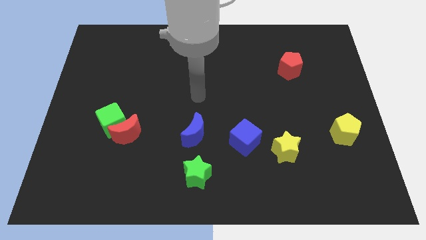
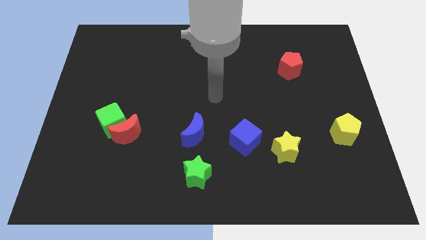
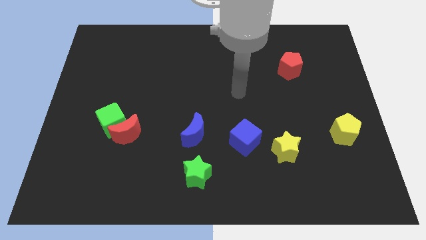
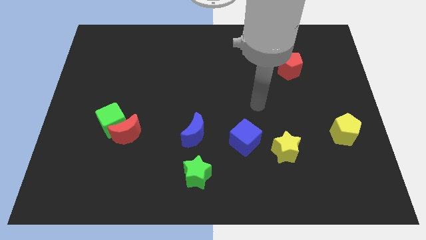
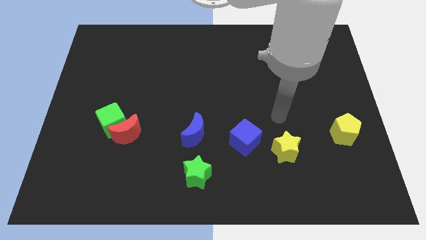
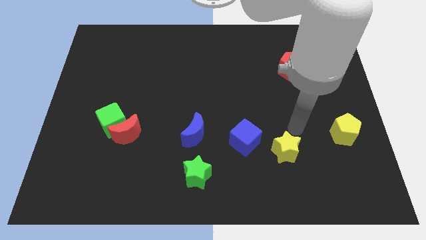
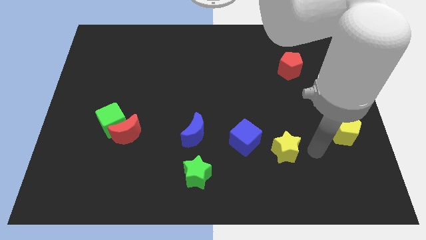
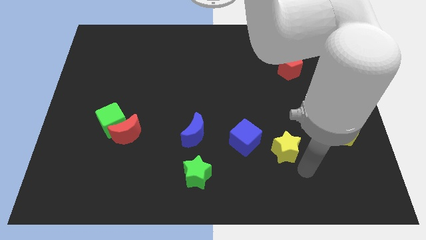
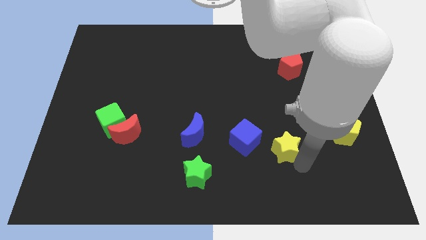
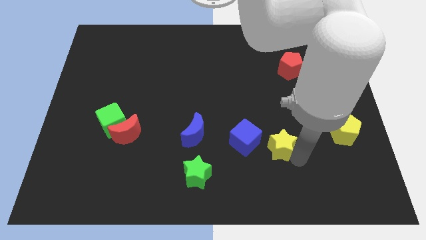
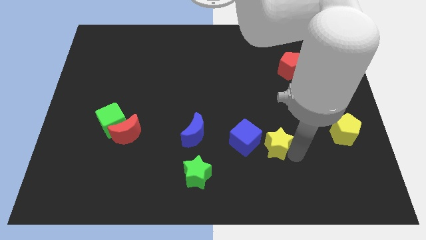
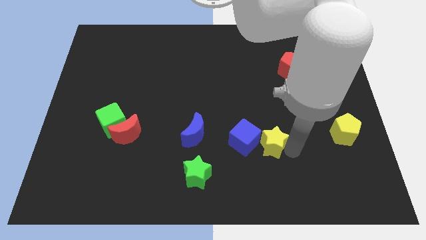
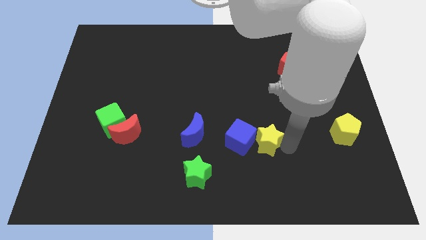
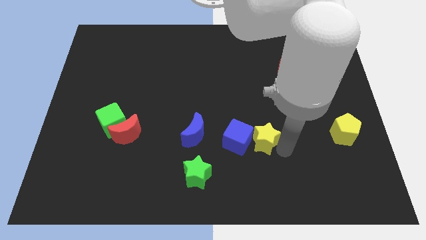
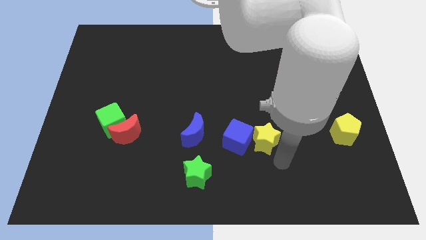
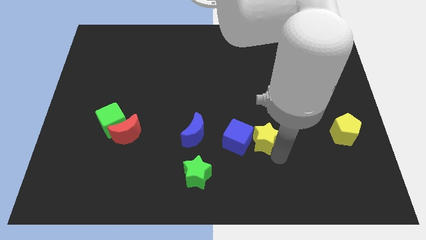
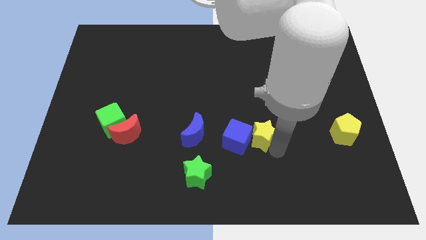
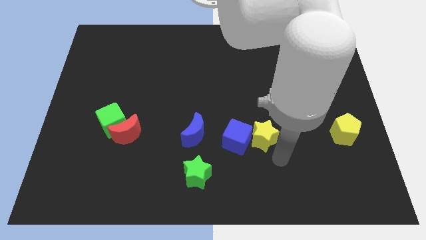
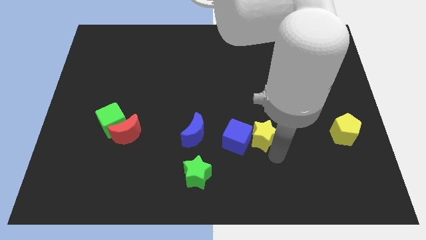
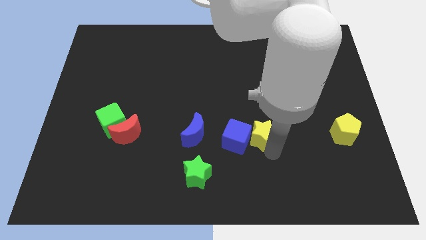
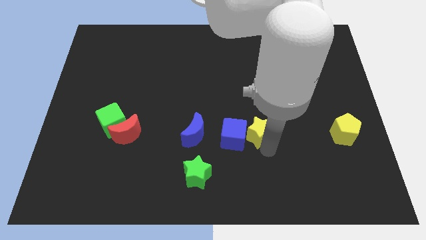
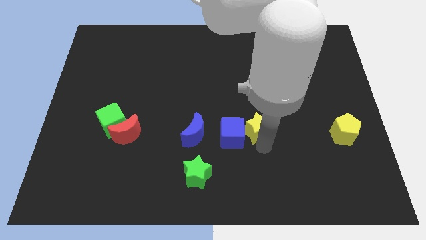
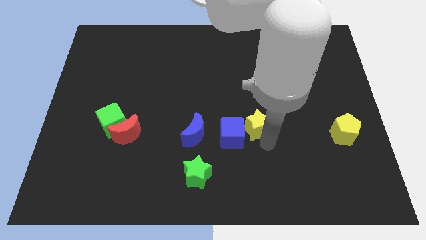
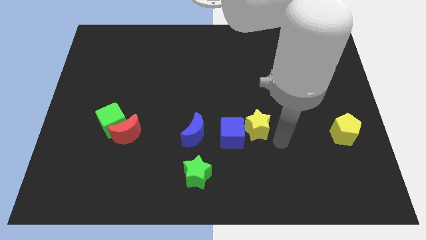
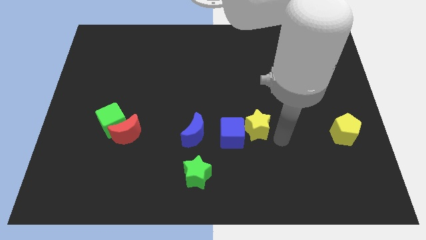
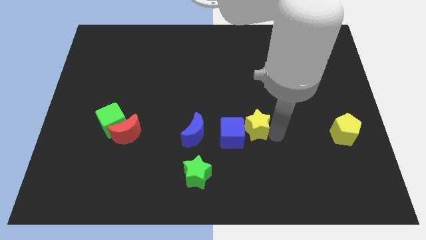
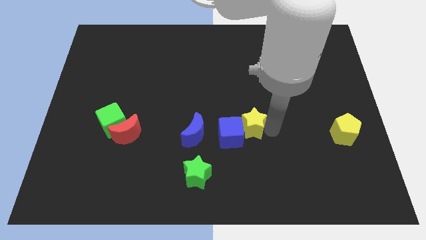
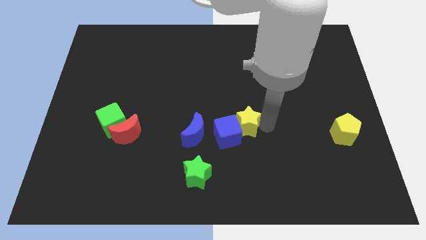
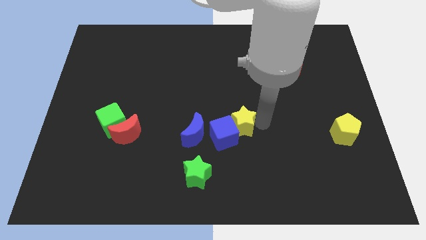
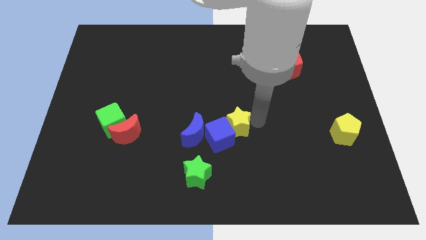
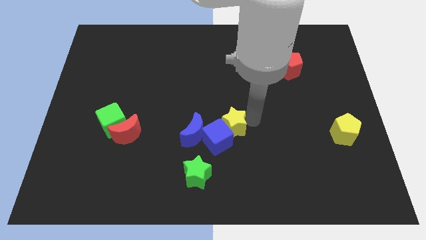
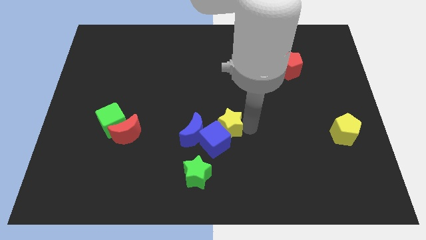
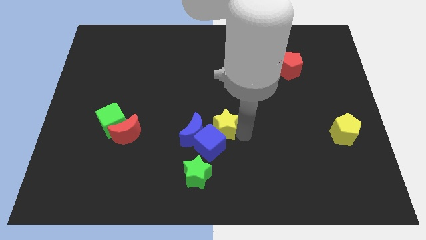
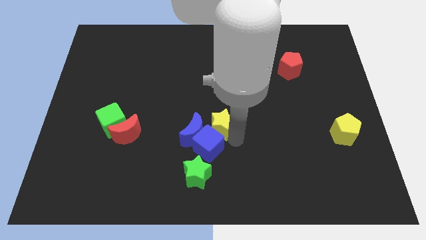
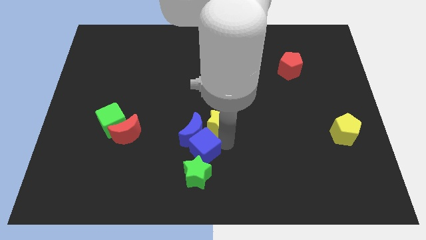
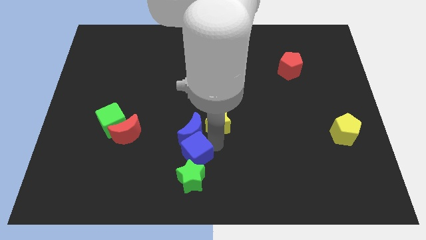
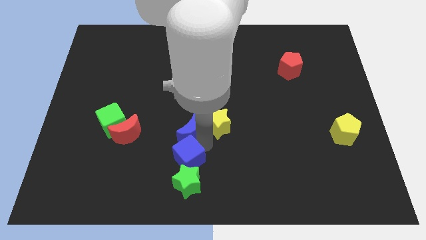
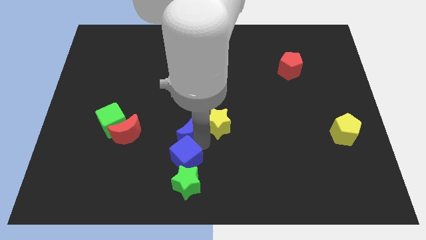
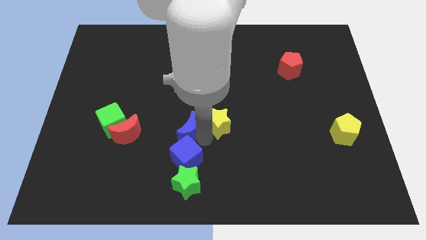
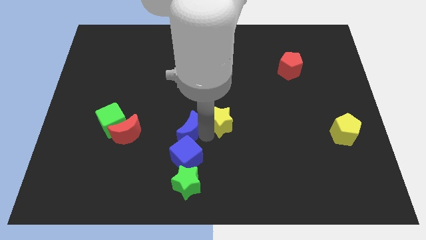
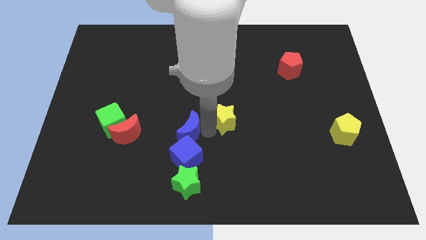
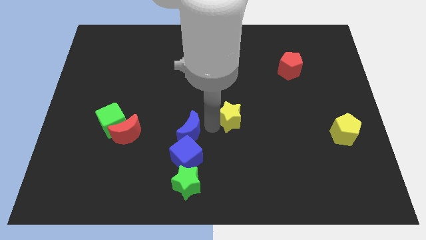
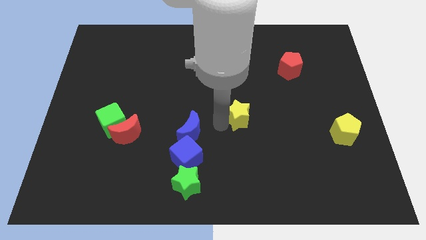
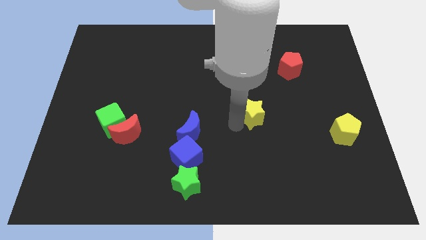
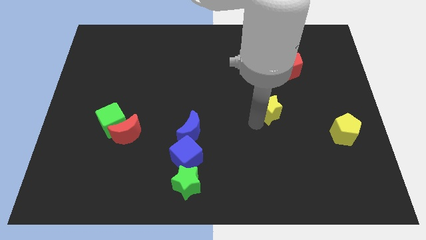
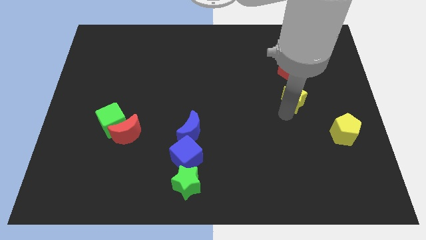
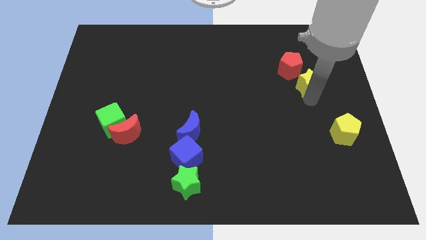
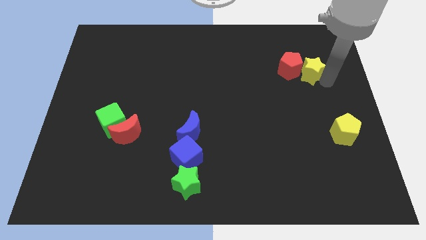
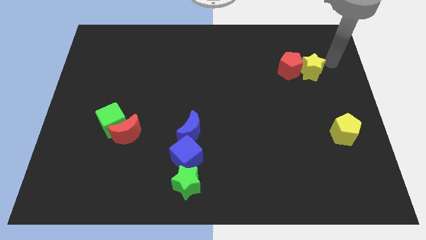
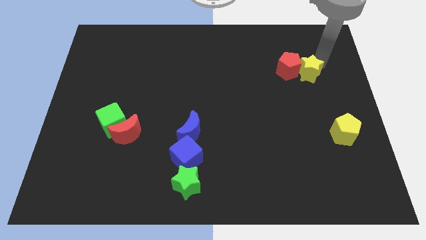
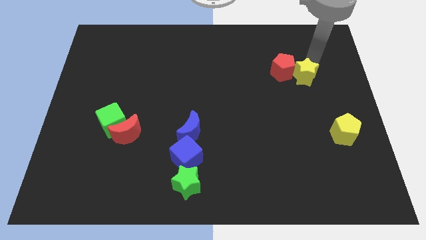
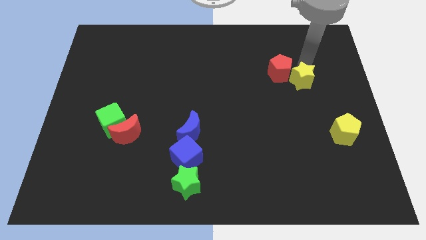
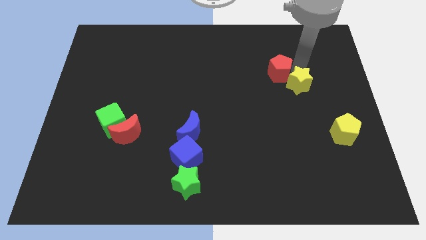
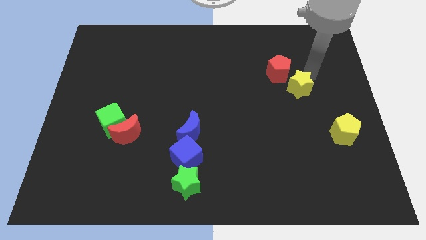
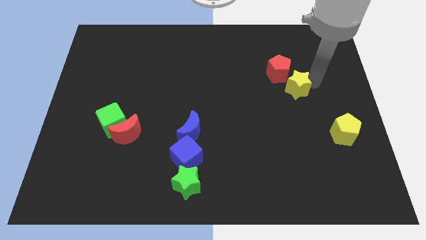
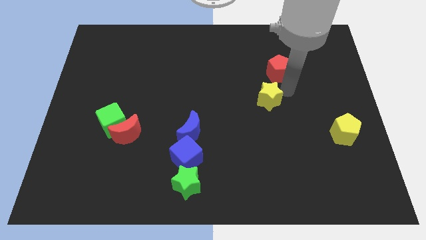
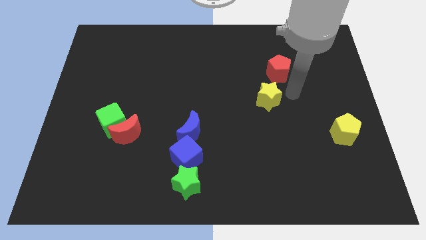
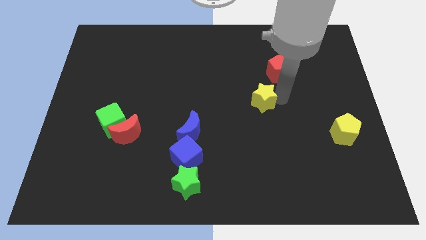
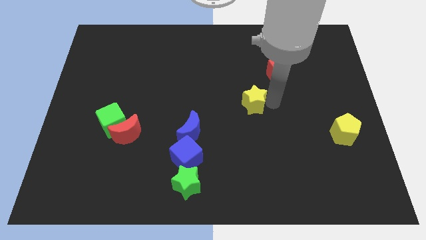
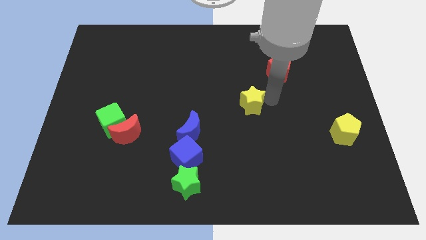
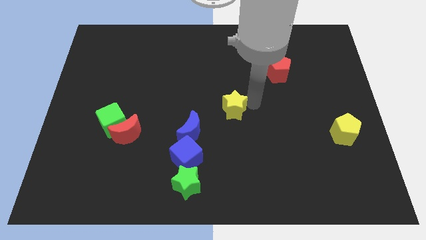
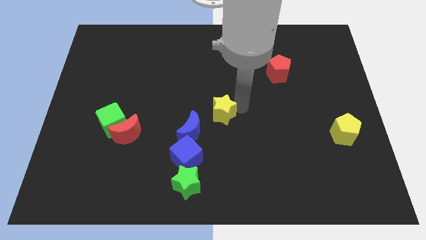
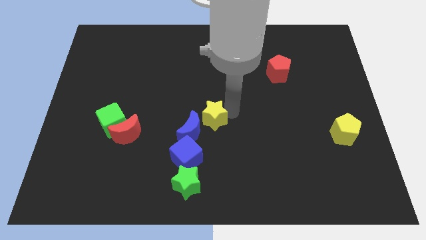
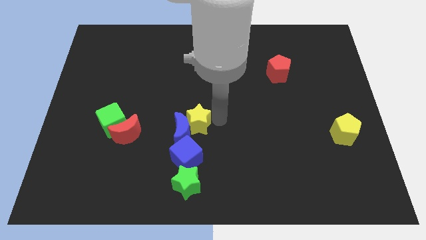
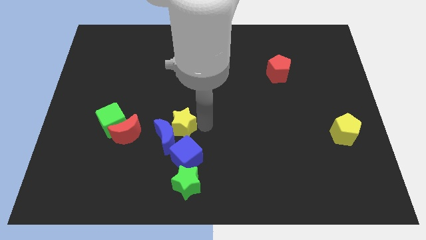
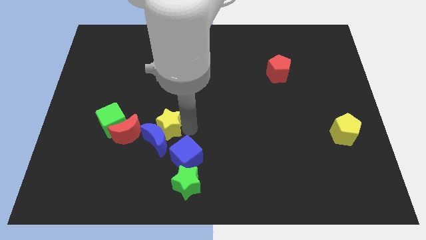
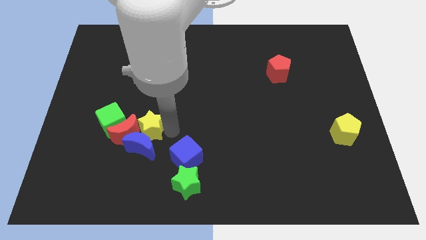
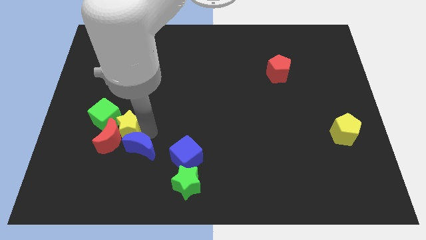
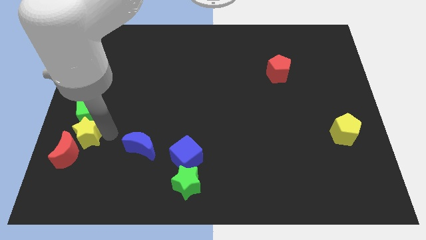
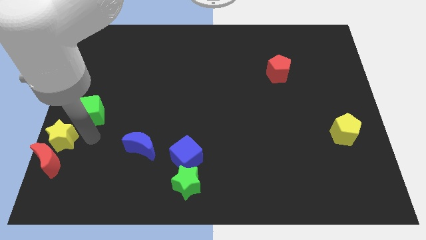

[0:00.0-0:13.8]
put the yellow star to the center left
